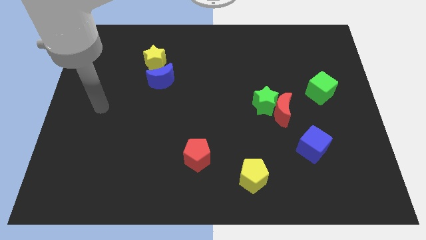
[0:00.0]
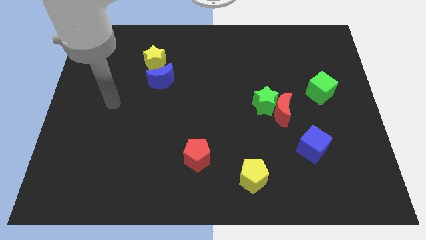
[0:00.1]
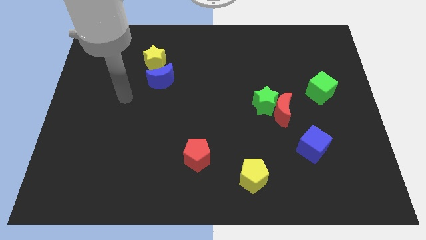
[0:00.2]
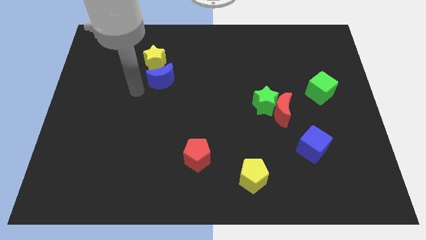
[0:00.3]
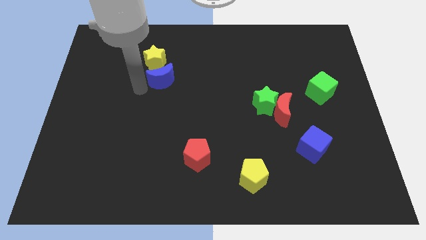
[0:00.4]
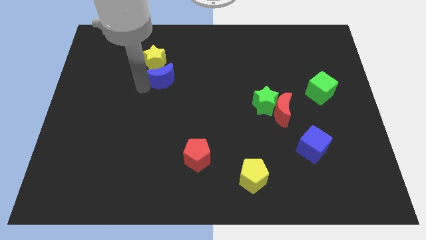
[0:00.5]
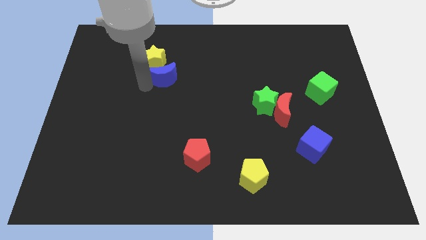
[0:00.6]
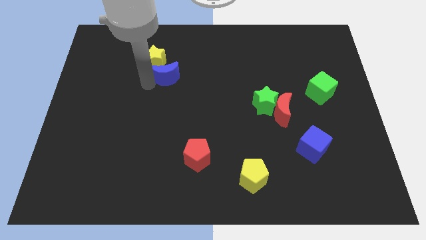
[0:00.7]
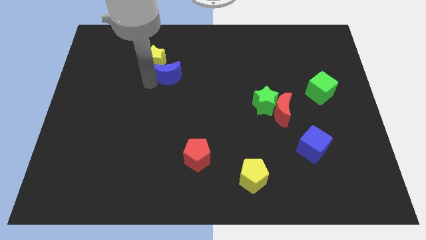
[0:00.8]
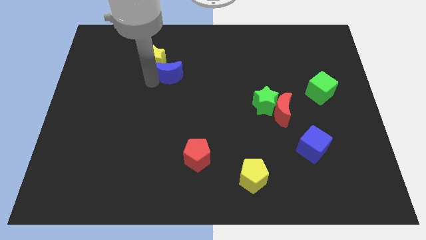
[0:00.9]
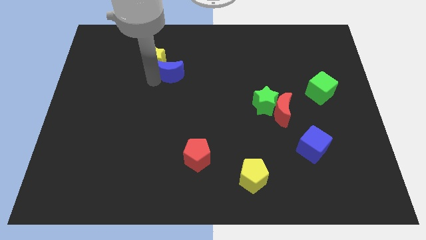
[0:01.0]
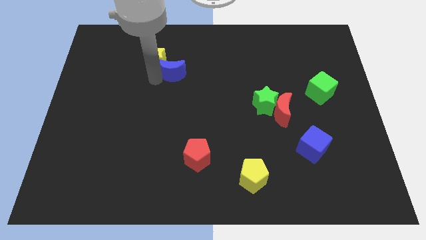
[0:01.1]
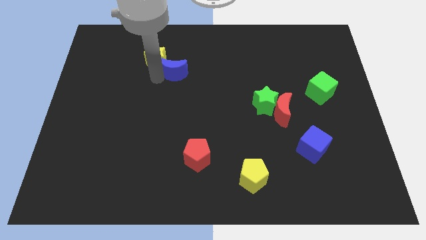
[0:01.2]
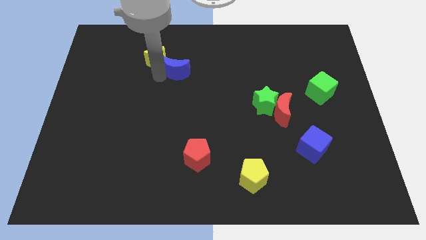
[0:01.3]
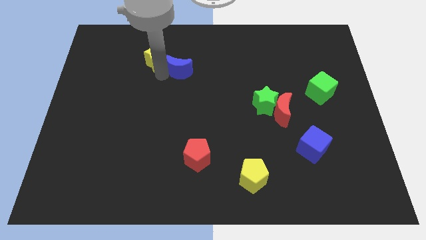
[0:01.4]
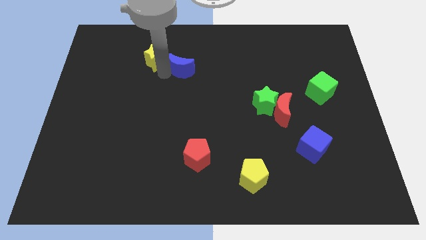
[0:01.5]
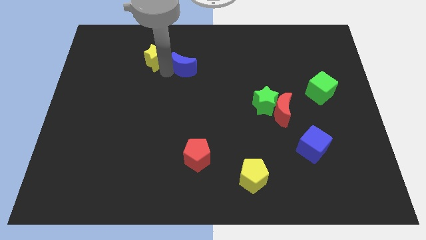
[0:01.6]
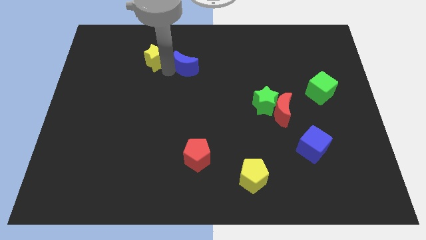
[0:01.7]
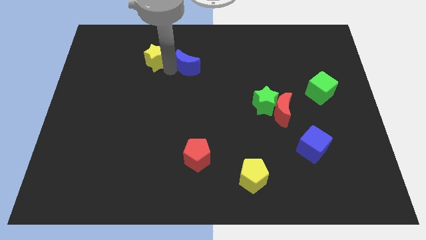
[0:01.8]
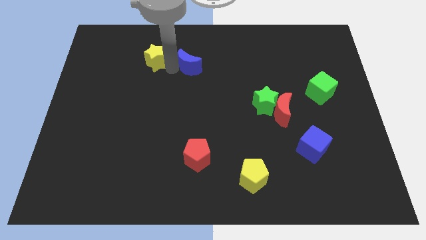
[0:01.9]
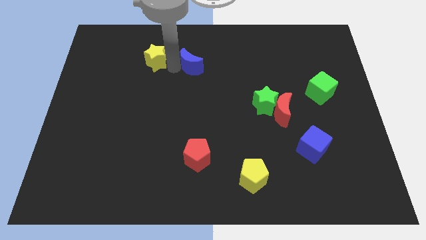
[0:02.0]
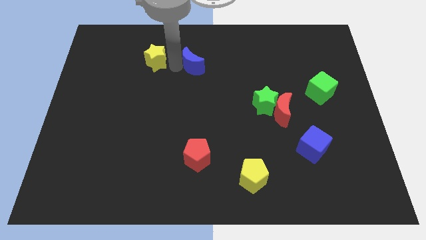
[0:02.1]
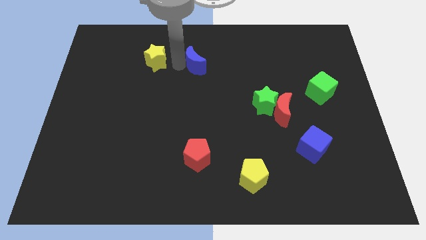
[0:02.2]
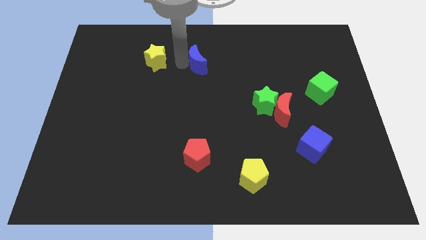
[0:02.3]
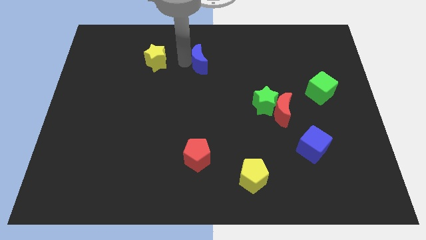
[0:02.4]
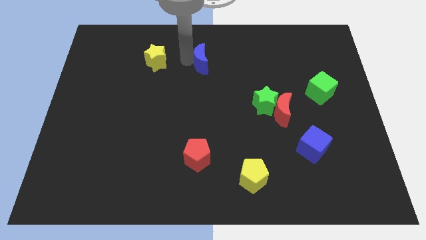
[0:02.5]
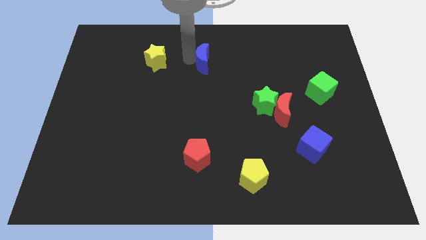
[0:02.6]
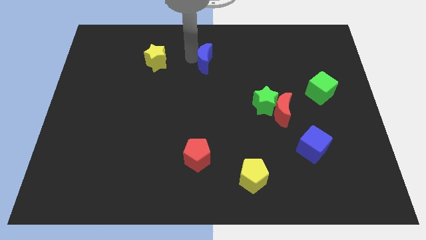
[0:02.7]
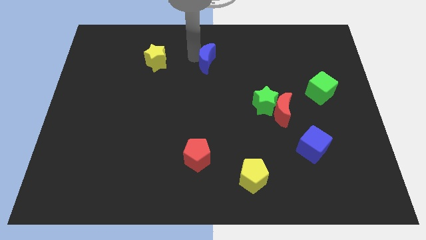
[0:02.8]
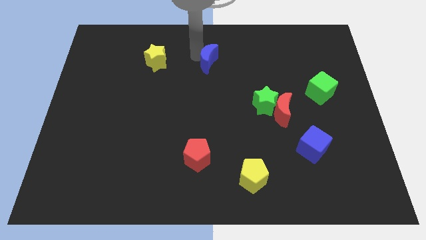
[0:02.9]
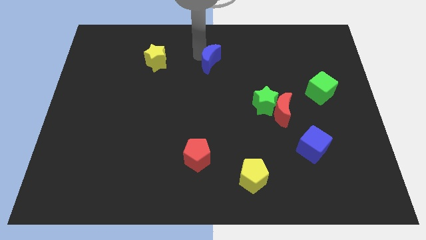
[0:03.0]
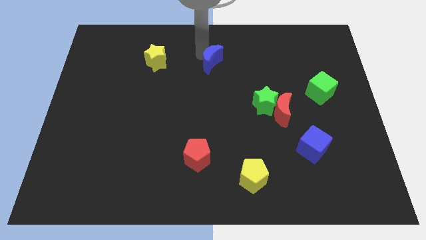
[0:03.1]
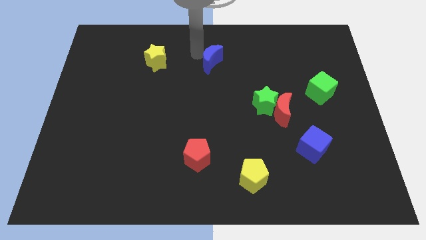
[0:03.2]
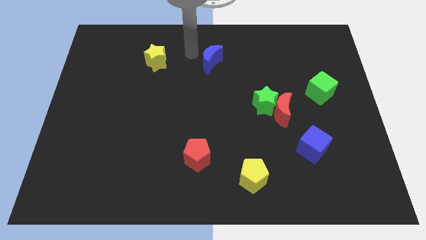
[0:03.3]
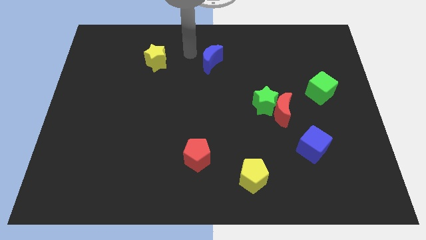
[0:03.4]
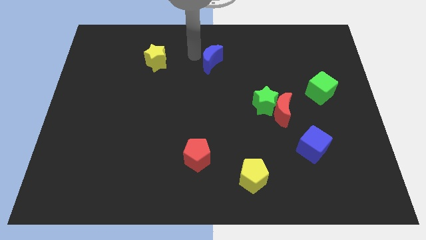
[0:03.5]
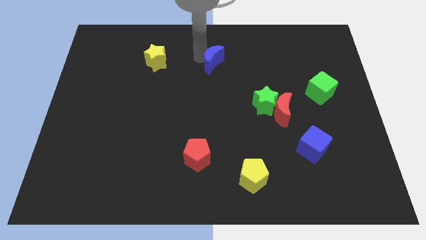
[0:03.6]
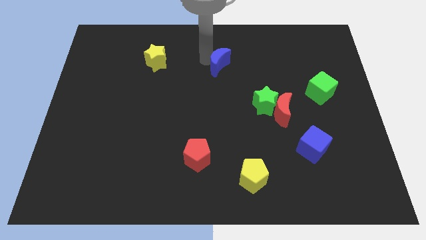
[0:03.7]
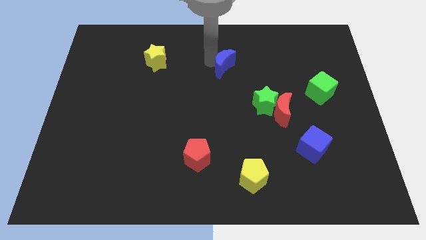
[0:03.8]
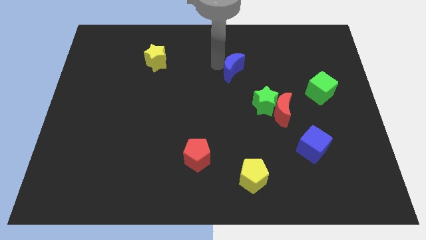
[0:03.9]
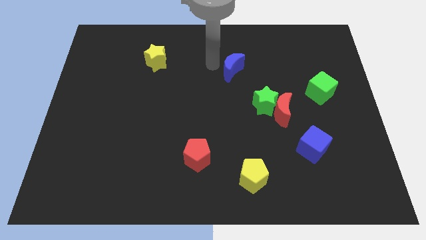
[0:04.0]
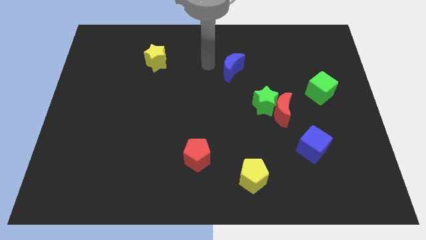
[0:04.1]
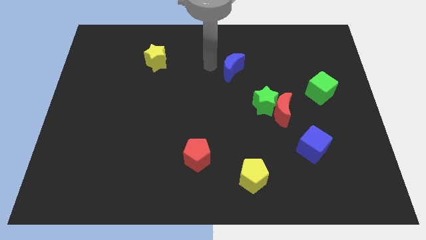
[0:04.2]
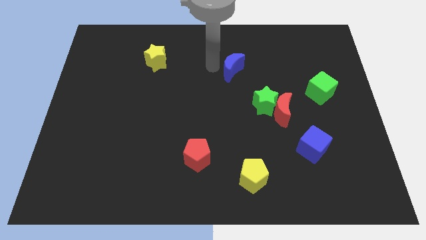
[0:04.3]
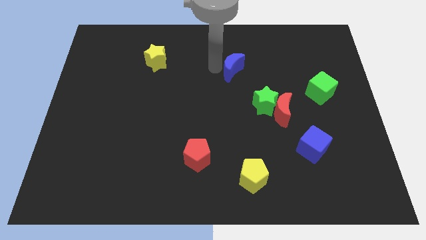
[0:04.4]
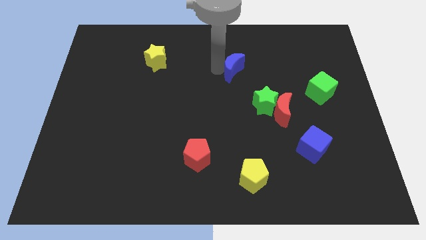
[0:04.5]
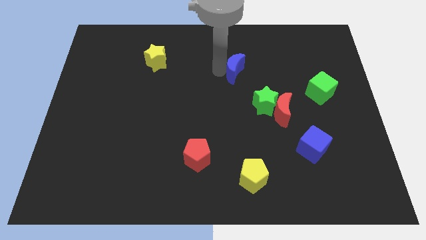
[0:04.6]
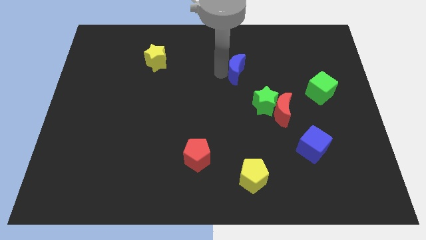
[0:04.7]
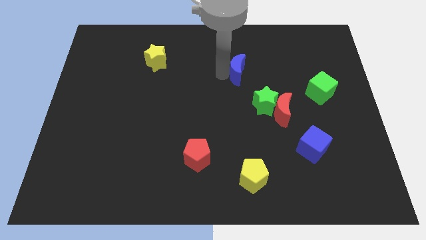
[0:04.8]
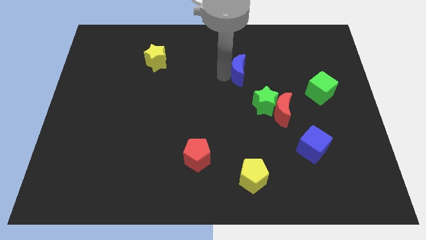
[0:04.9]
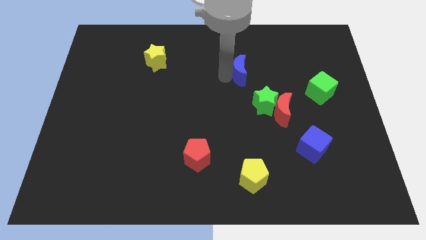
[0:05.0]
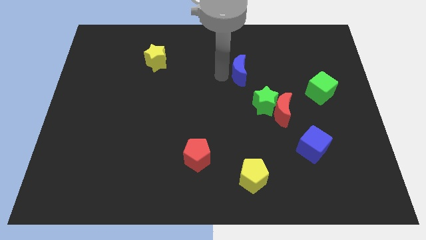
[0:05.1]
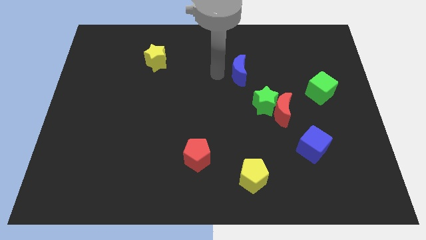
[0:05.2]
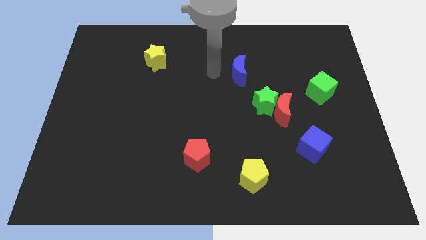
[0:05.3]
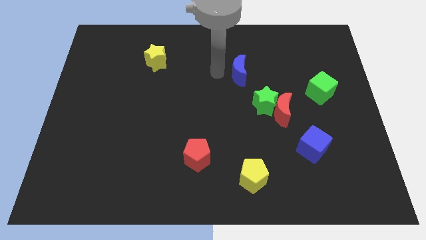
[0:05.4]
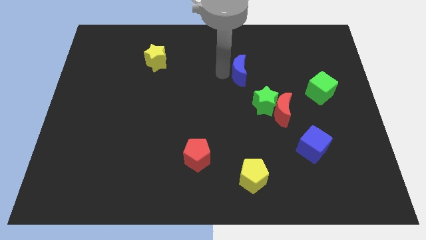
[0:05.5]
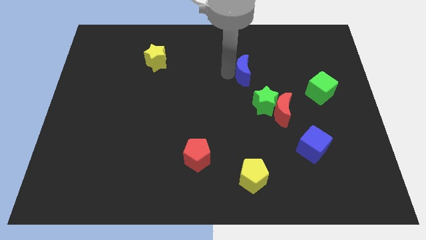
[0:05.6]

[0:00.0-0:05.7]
push the blue moon right

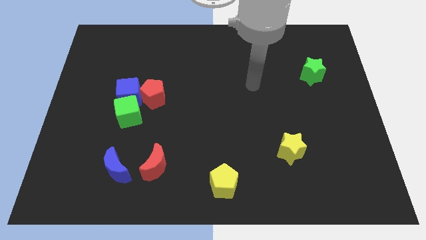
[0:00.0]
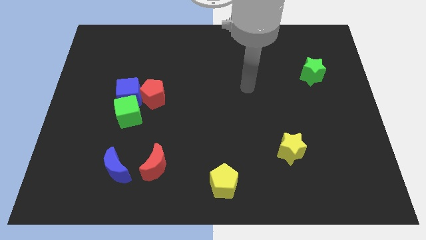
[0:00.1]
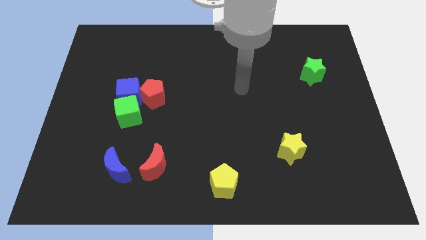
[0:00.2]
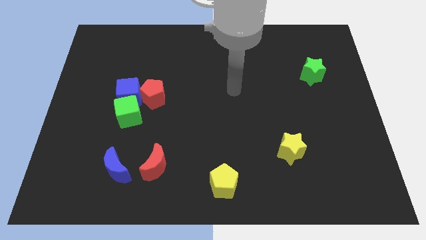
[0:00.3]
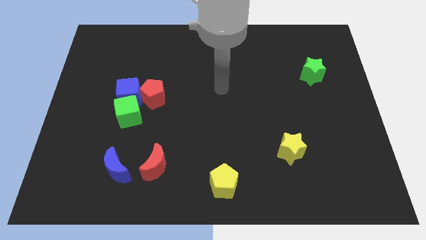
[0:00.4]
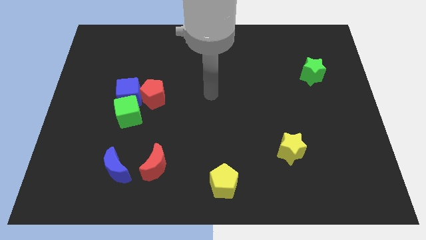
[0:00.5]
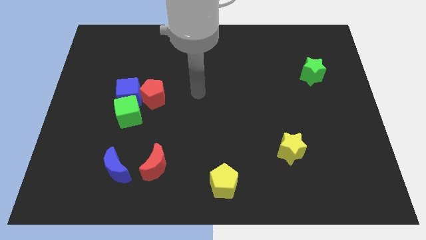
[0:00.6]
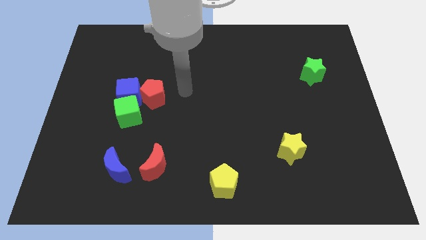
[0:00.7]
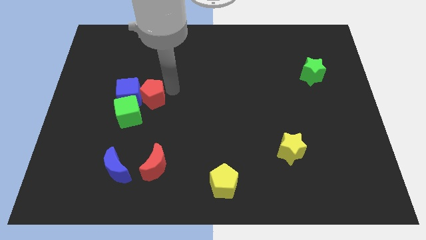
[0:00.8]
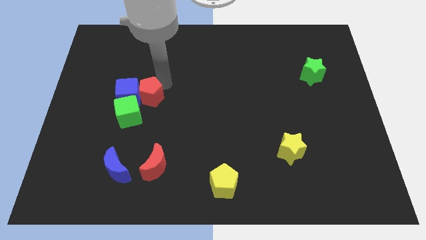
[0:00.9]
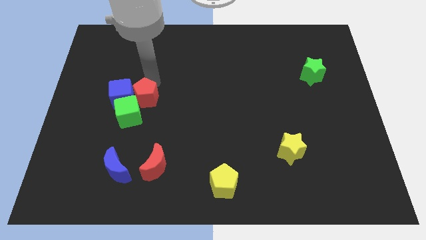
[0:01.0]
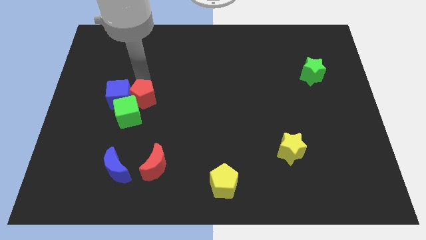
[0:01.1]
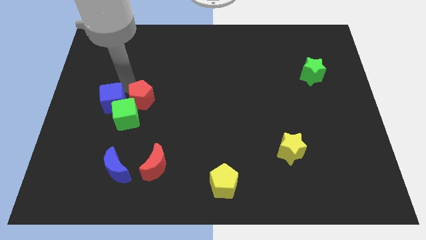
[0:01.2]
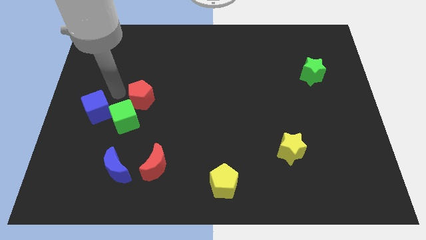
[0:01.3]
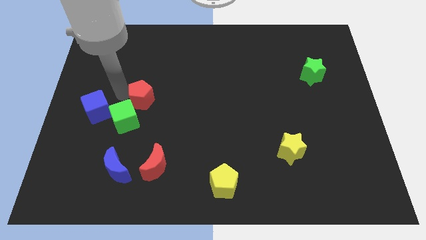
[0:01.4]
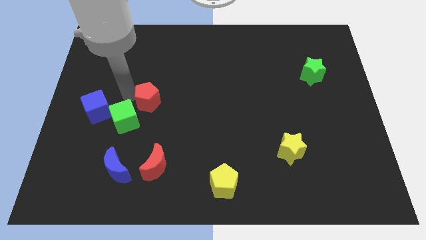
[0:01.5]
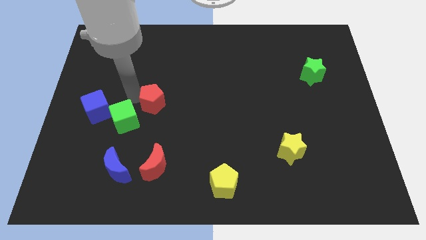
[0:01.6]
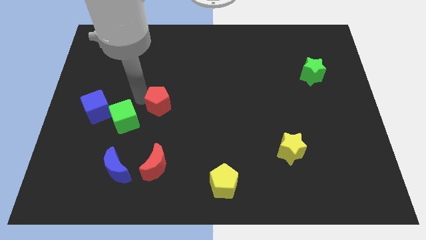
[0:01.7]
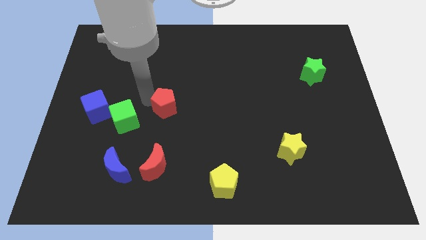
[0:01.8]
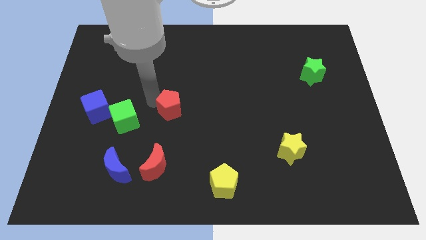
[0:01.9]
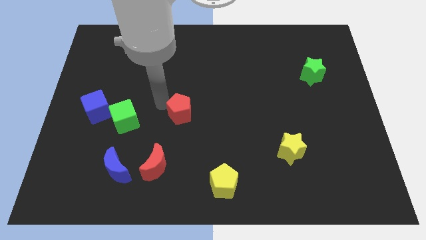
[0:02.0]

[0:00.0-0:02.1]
slightly move the red pentagon down and right

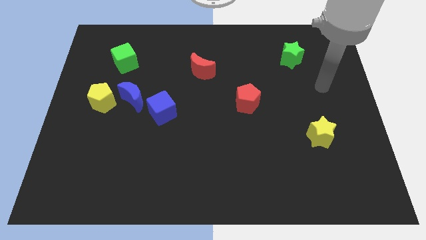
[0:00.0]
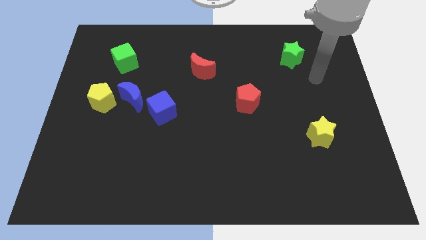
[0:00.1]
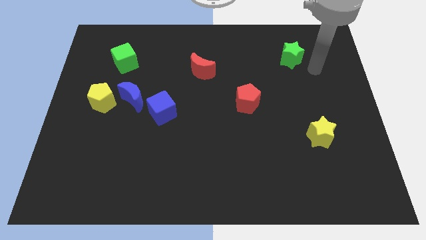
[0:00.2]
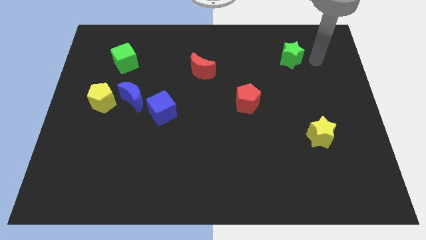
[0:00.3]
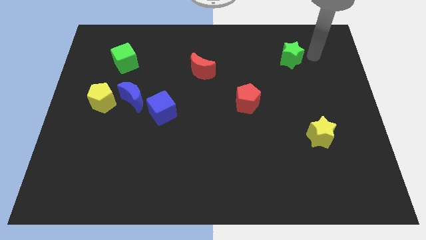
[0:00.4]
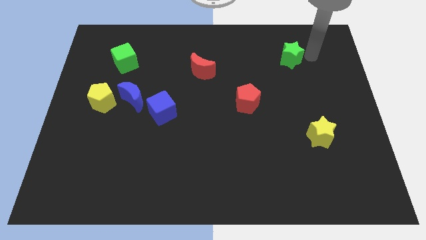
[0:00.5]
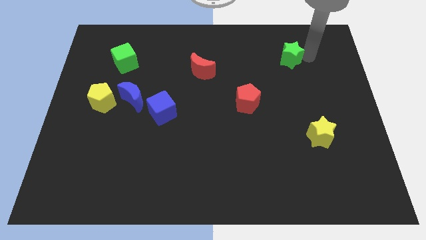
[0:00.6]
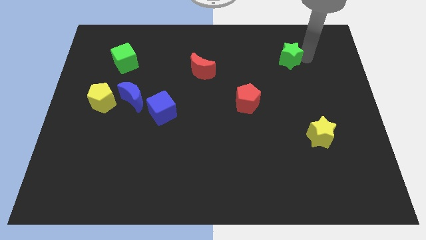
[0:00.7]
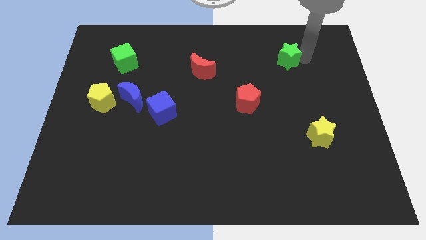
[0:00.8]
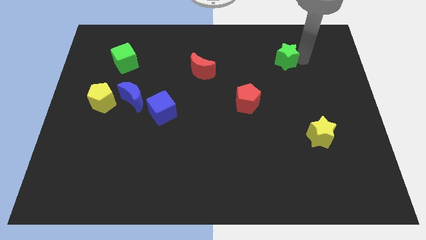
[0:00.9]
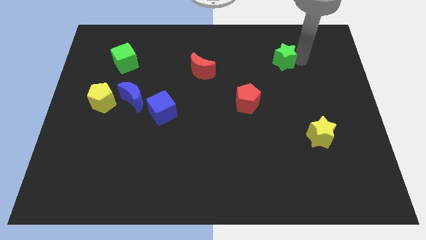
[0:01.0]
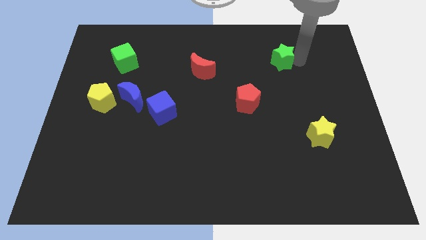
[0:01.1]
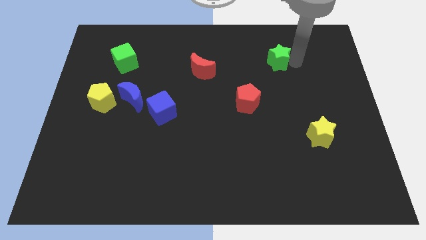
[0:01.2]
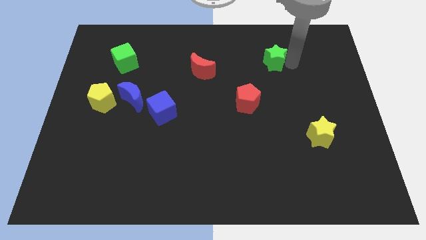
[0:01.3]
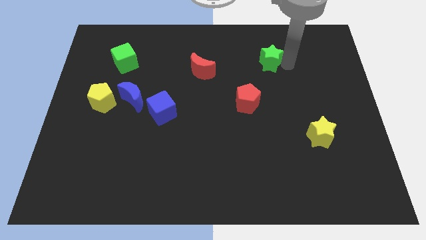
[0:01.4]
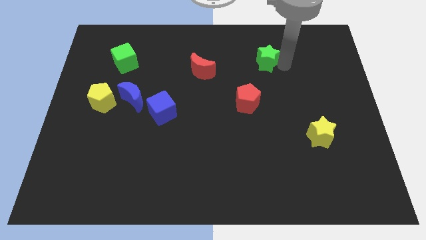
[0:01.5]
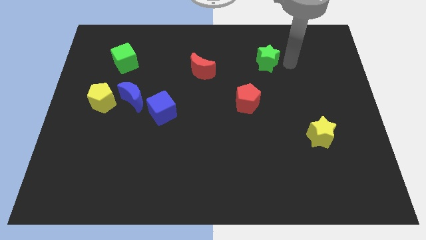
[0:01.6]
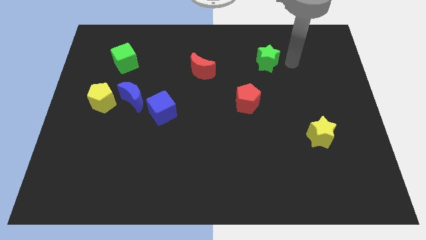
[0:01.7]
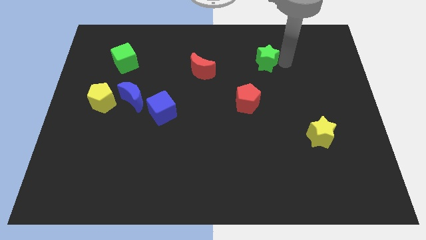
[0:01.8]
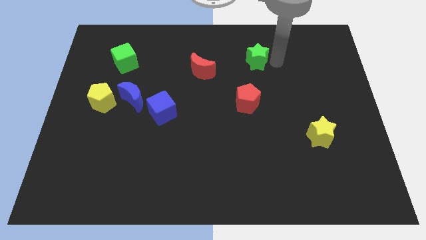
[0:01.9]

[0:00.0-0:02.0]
slightly move the green star left
